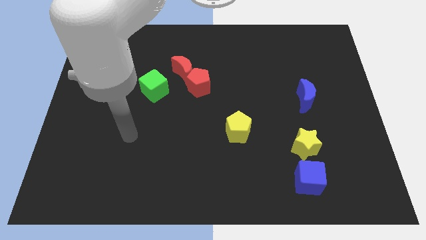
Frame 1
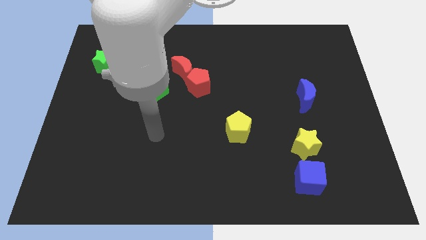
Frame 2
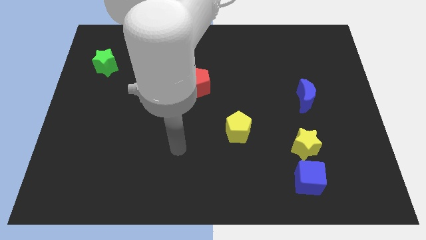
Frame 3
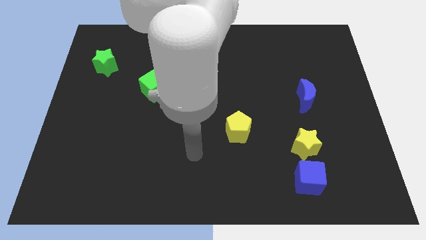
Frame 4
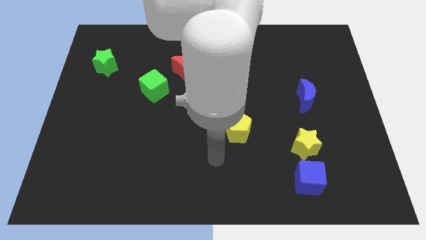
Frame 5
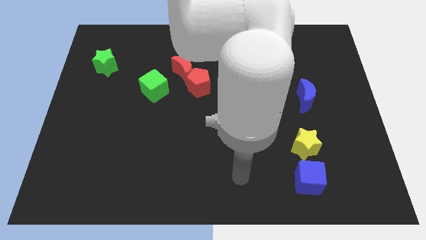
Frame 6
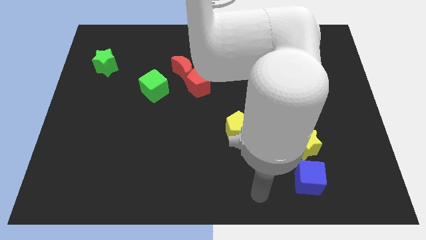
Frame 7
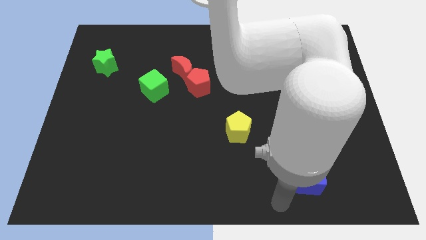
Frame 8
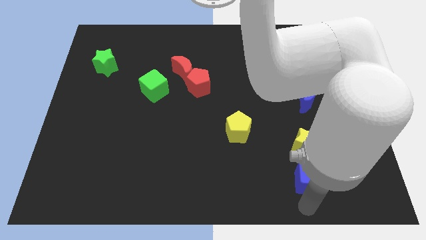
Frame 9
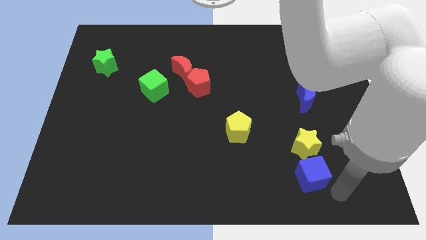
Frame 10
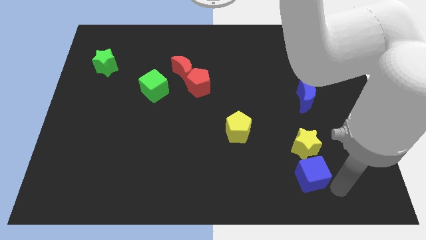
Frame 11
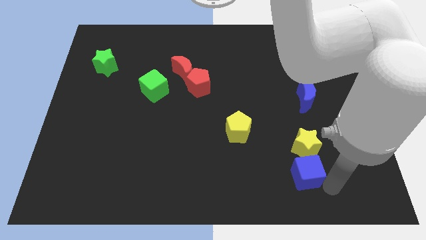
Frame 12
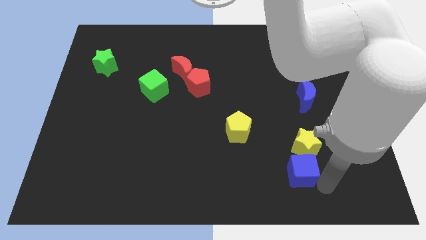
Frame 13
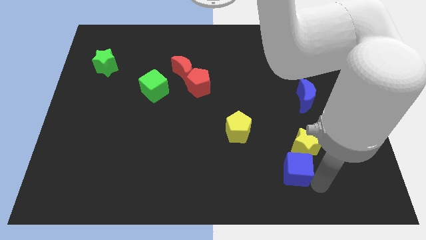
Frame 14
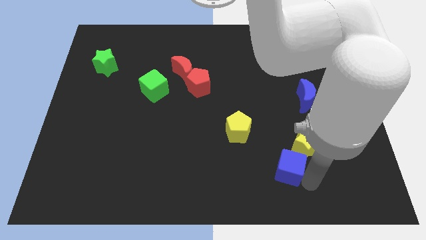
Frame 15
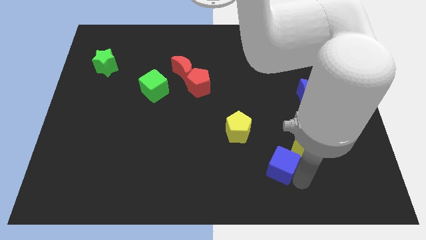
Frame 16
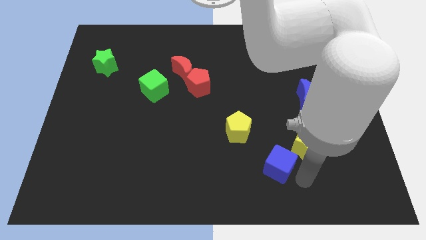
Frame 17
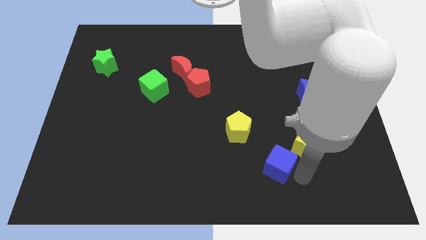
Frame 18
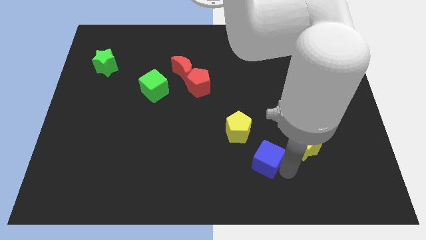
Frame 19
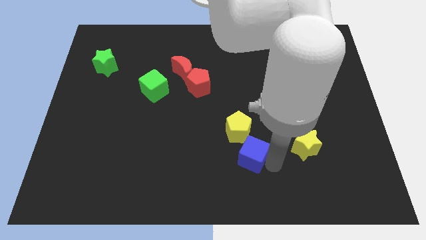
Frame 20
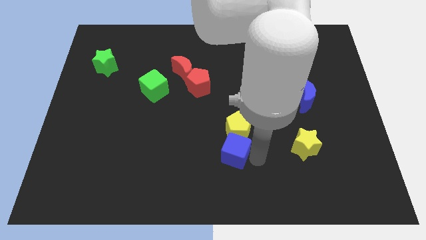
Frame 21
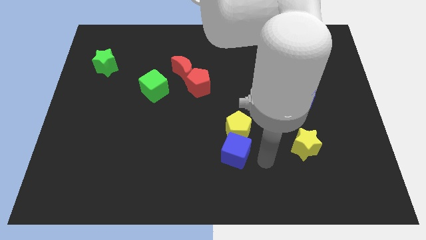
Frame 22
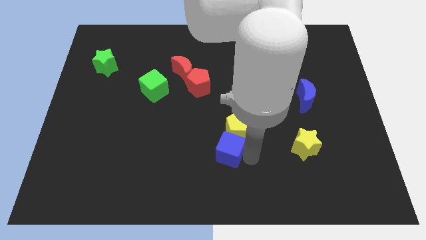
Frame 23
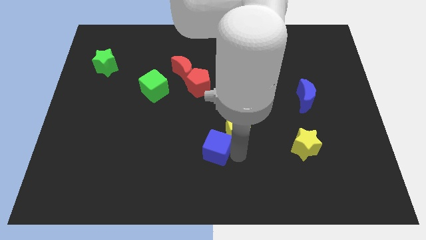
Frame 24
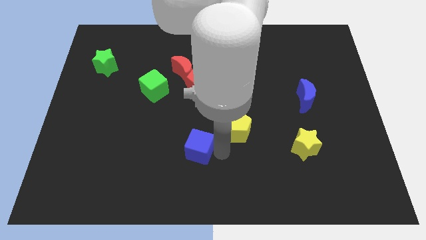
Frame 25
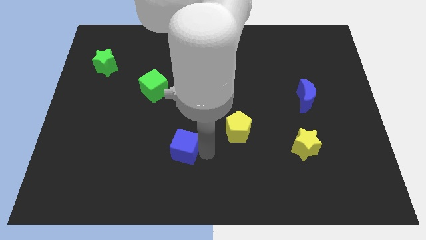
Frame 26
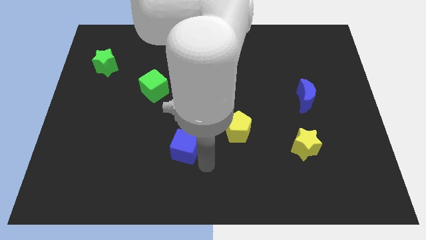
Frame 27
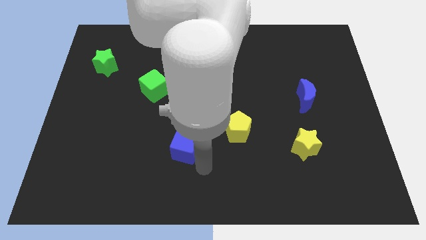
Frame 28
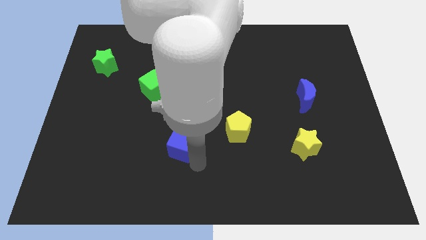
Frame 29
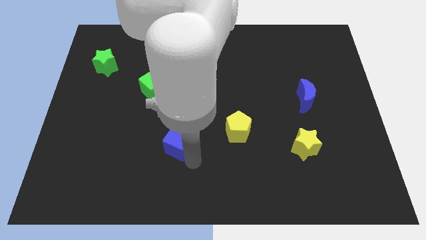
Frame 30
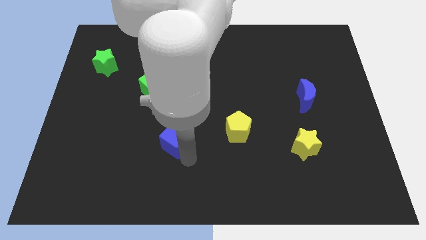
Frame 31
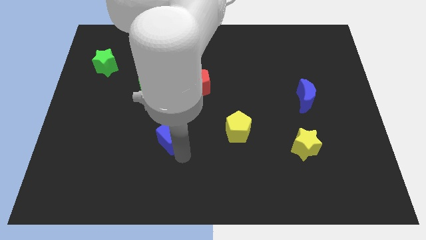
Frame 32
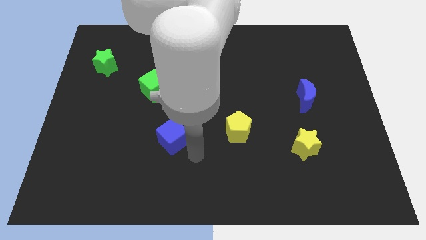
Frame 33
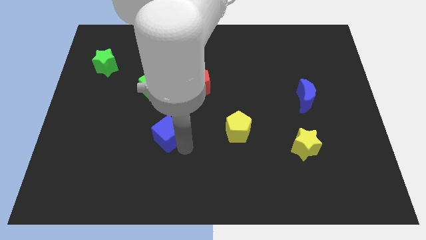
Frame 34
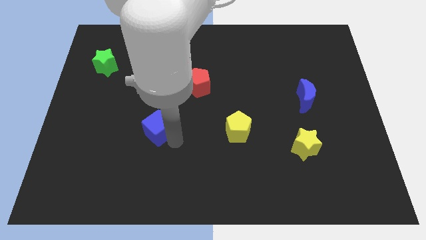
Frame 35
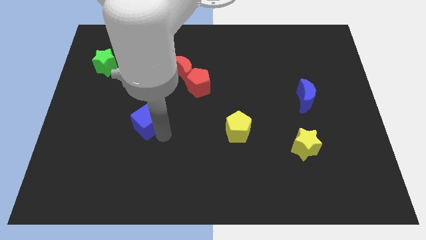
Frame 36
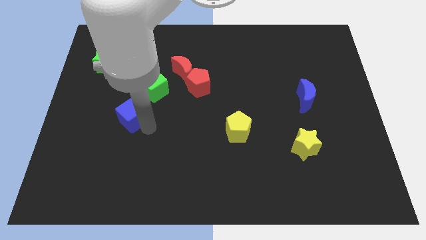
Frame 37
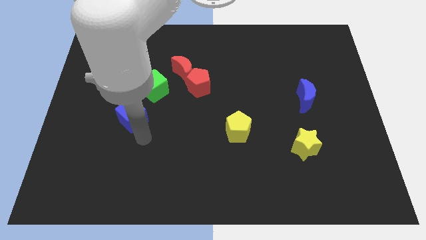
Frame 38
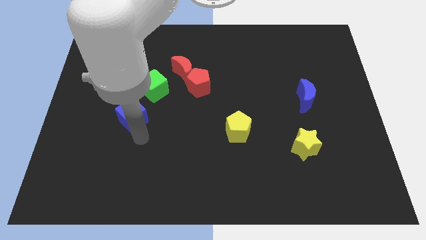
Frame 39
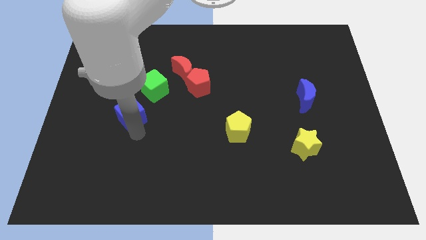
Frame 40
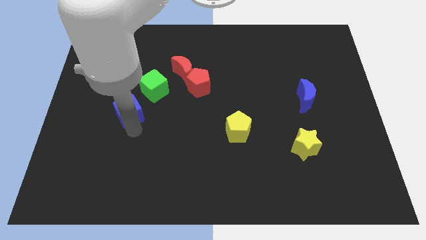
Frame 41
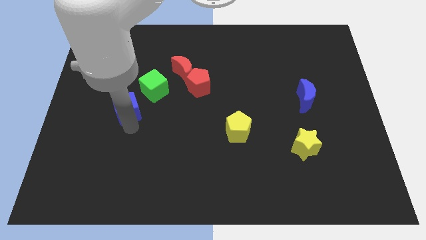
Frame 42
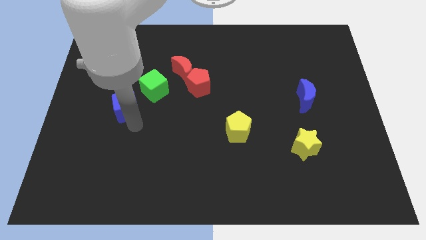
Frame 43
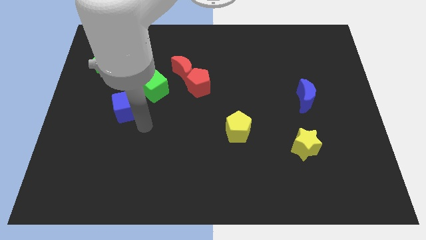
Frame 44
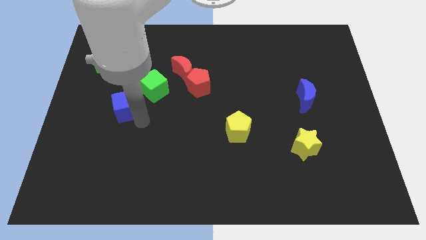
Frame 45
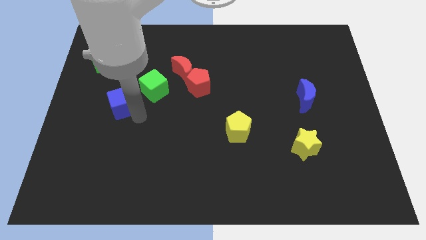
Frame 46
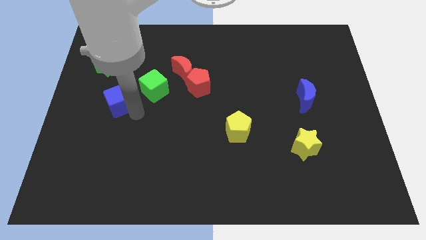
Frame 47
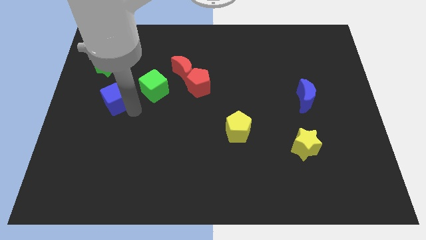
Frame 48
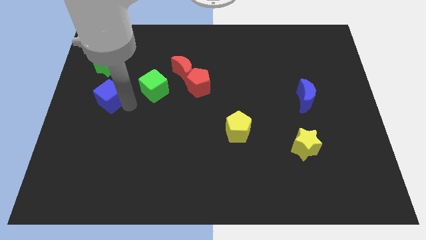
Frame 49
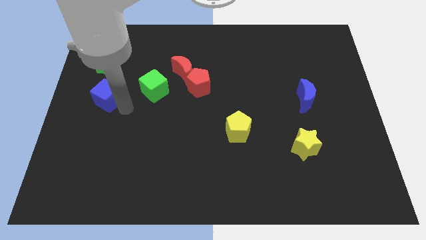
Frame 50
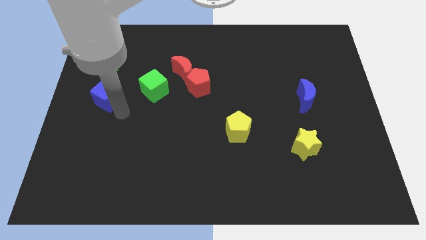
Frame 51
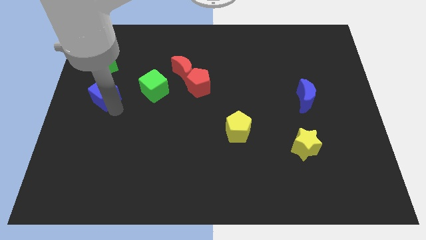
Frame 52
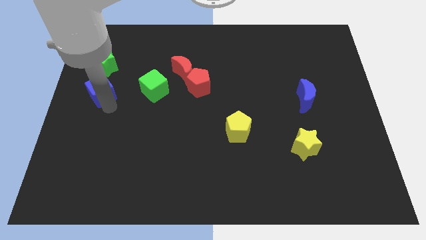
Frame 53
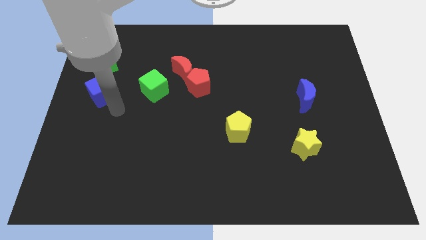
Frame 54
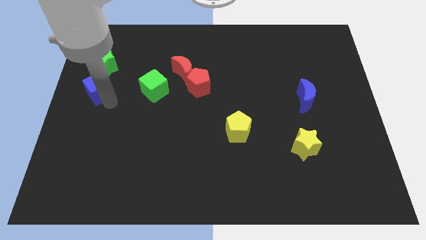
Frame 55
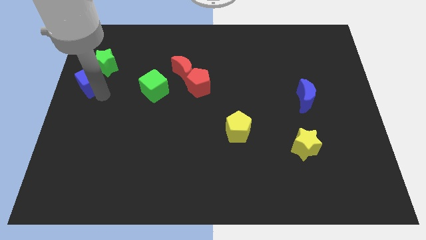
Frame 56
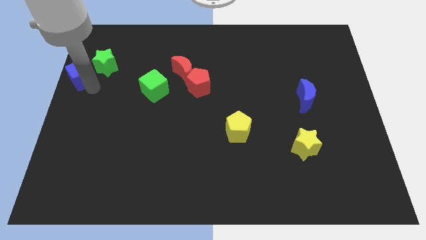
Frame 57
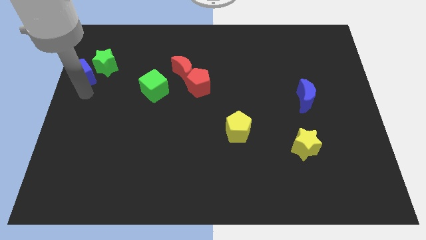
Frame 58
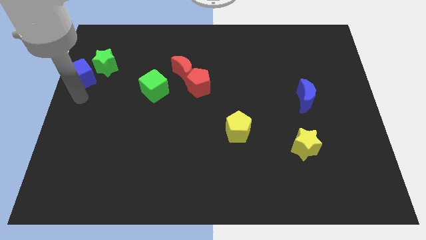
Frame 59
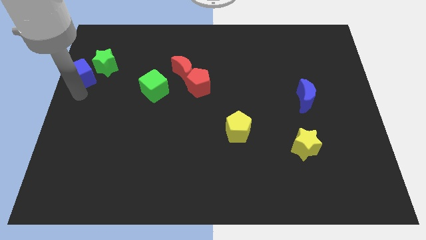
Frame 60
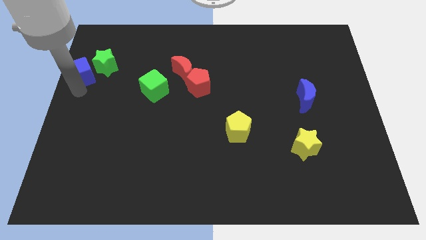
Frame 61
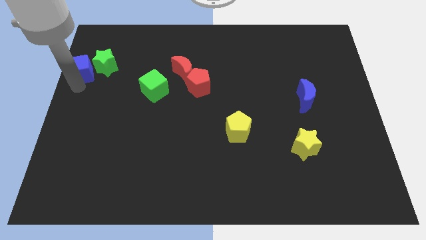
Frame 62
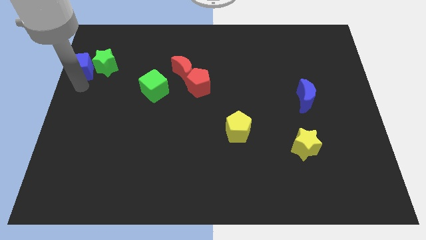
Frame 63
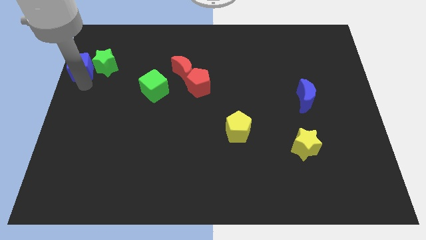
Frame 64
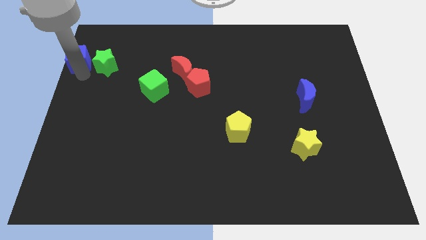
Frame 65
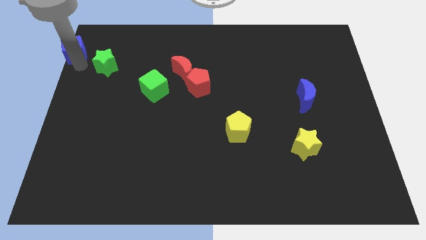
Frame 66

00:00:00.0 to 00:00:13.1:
move the blue cube to the top left
